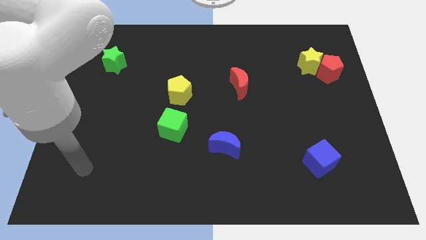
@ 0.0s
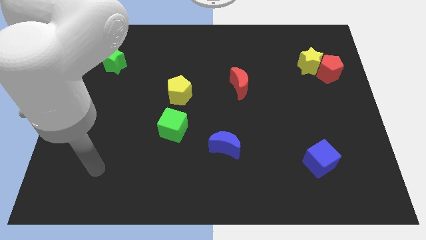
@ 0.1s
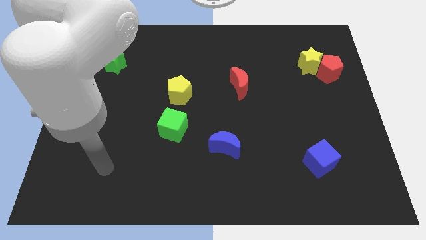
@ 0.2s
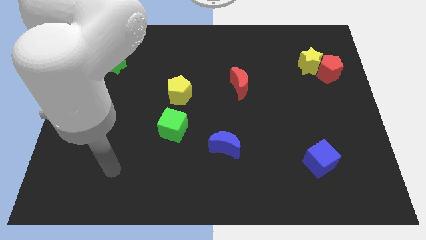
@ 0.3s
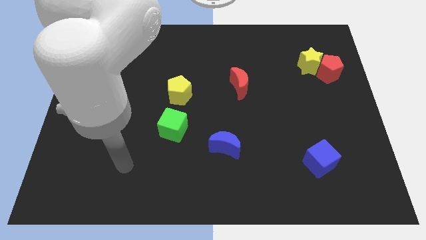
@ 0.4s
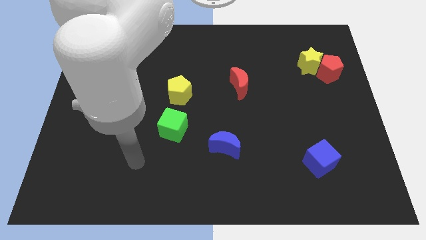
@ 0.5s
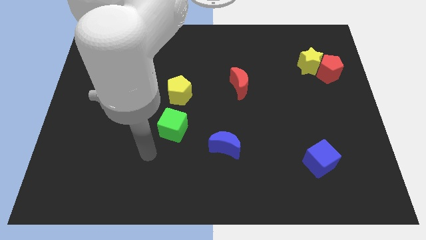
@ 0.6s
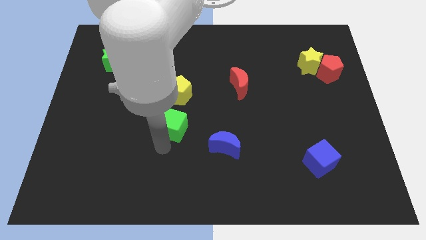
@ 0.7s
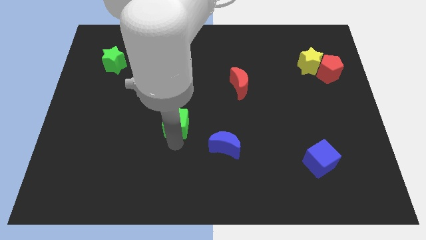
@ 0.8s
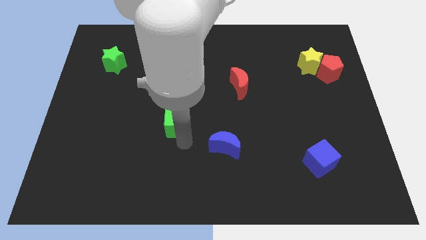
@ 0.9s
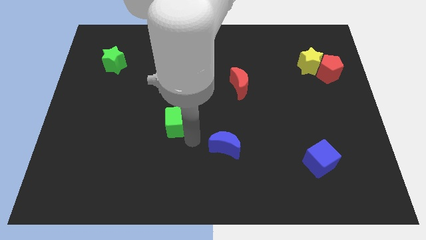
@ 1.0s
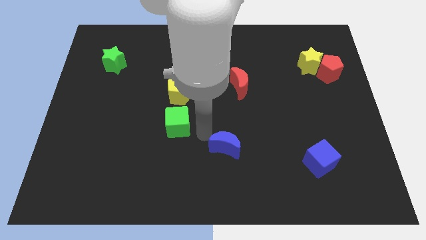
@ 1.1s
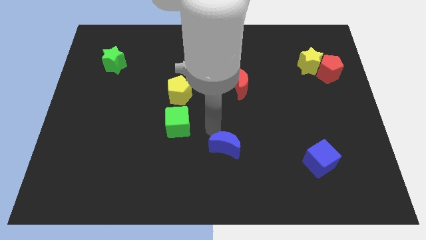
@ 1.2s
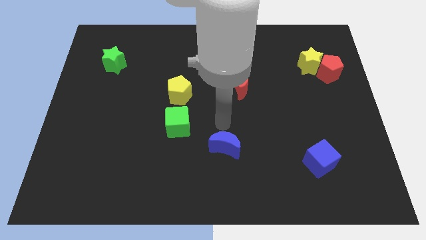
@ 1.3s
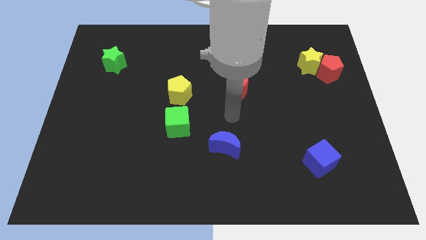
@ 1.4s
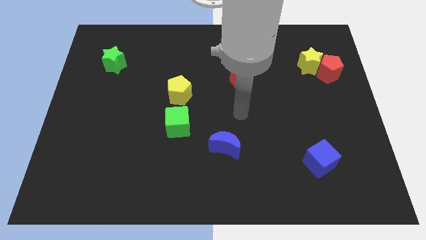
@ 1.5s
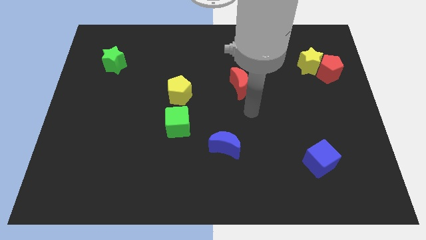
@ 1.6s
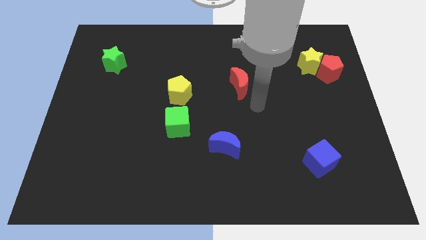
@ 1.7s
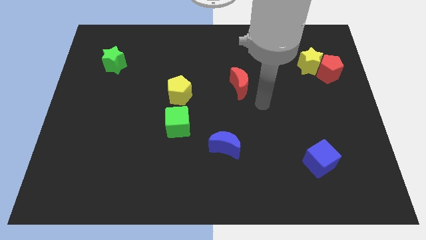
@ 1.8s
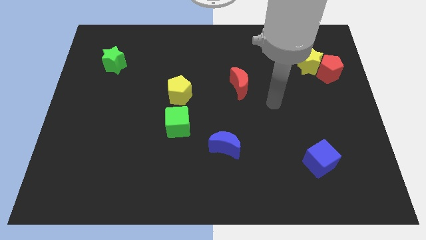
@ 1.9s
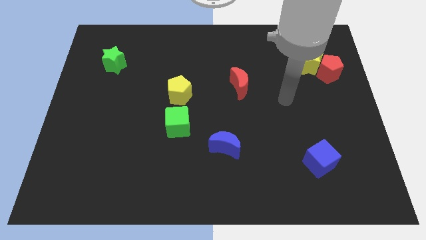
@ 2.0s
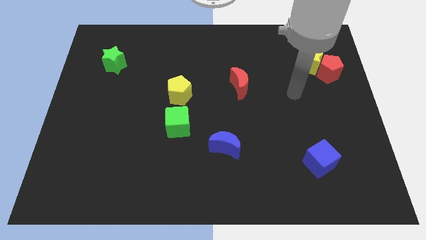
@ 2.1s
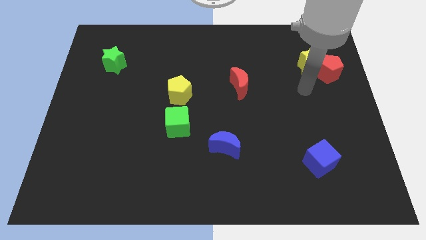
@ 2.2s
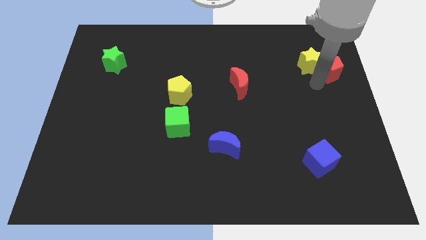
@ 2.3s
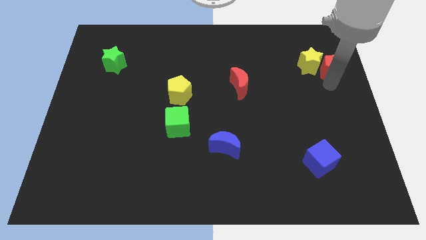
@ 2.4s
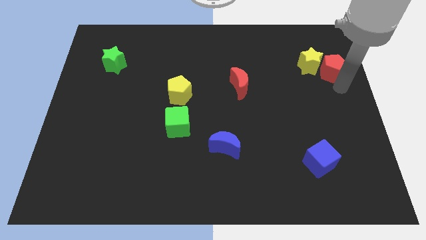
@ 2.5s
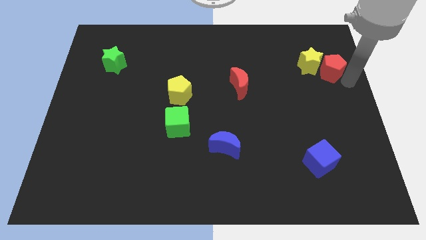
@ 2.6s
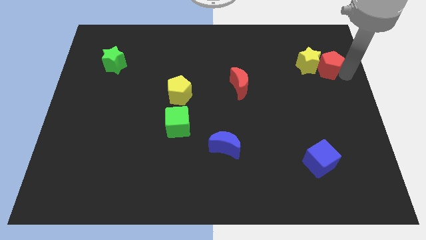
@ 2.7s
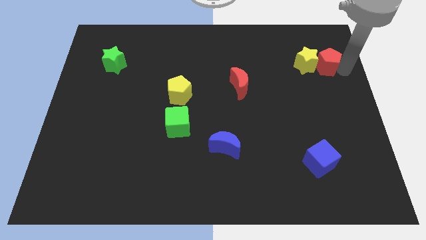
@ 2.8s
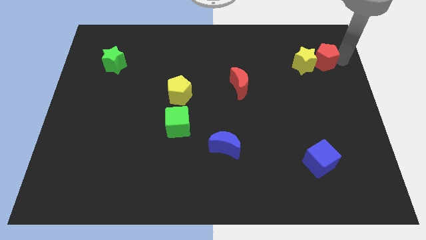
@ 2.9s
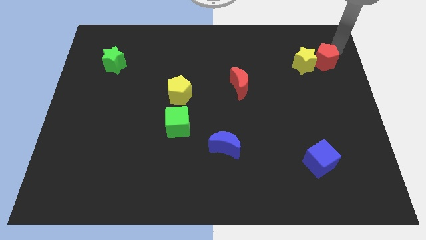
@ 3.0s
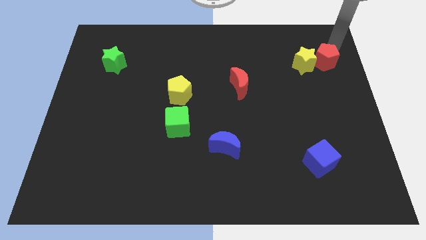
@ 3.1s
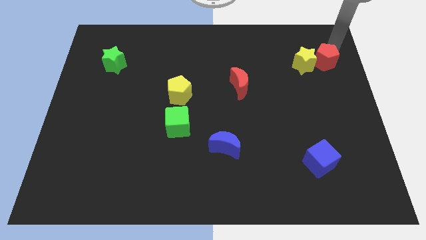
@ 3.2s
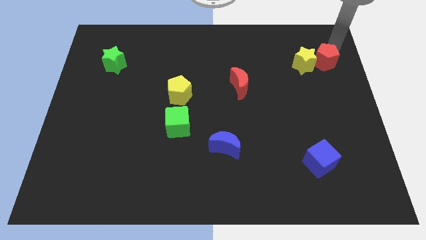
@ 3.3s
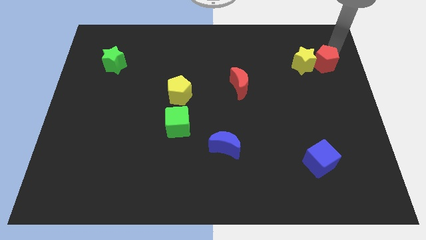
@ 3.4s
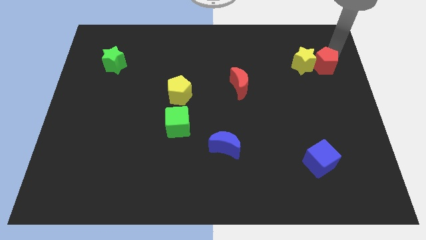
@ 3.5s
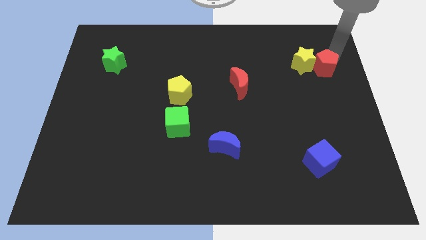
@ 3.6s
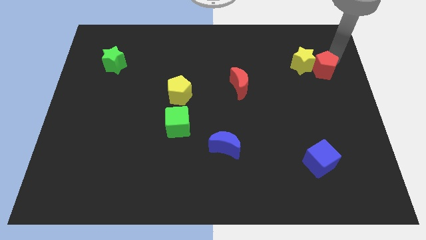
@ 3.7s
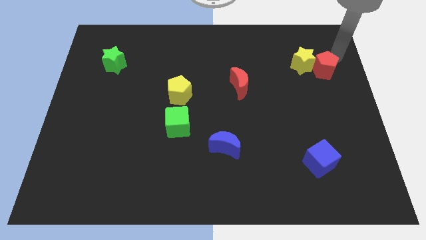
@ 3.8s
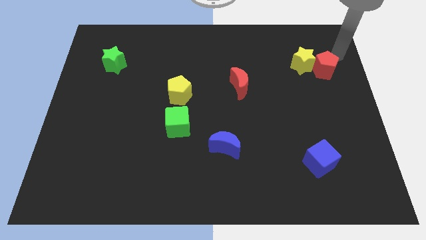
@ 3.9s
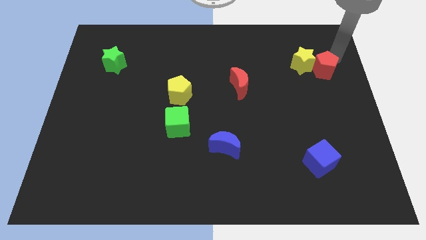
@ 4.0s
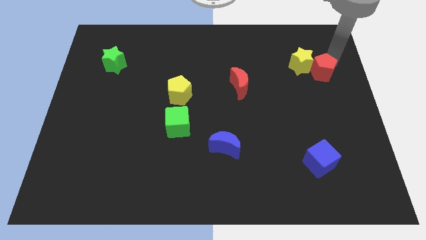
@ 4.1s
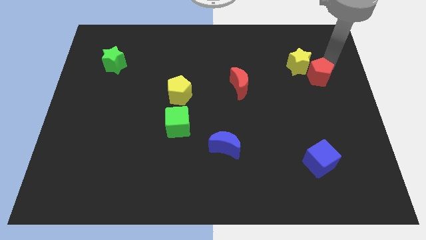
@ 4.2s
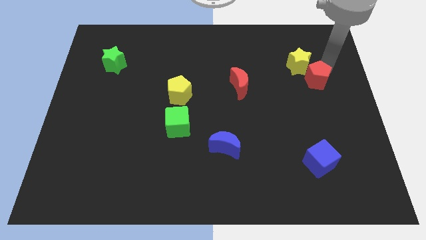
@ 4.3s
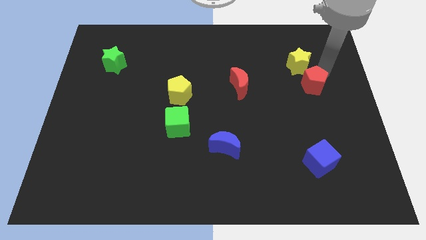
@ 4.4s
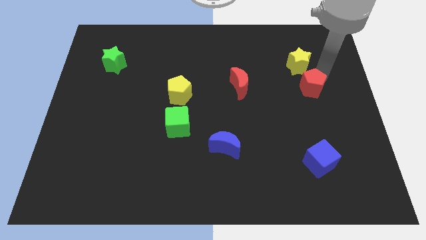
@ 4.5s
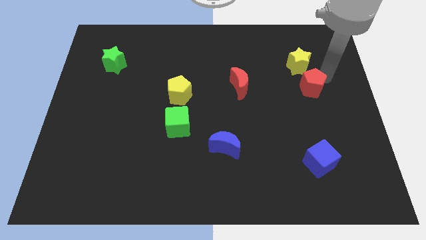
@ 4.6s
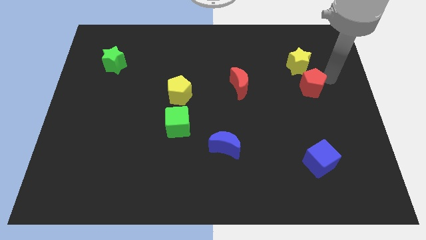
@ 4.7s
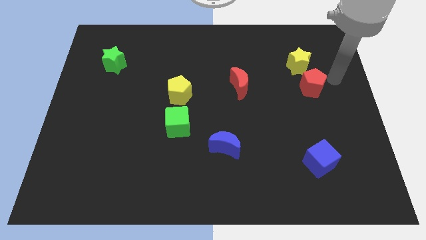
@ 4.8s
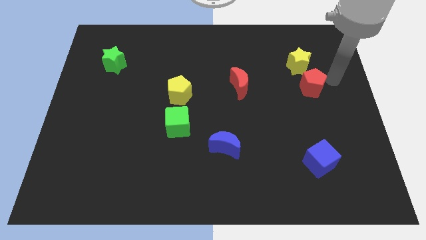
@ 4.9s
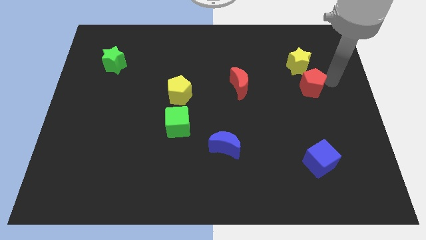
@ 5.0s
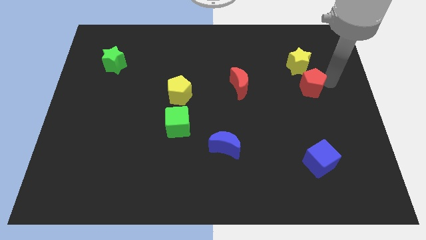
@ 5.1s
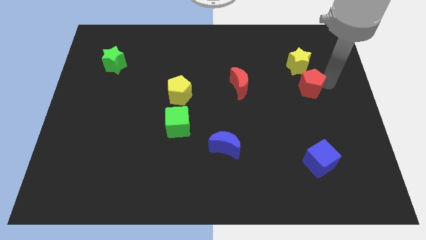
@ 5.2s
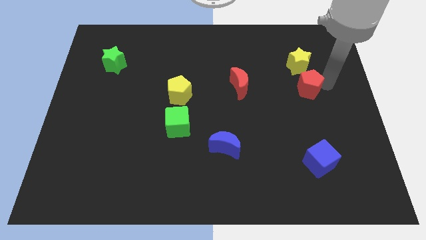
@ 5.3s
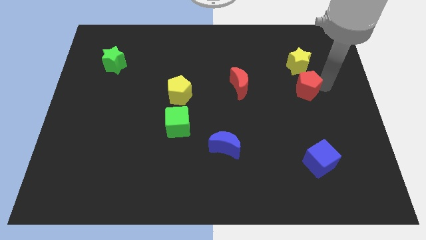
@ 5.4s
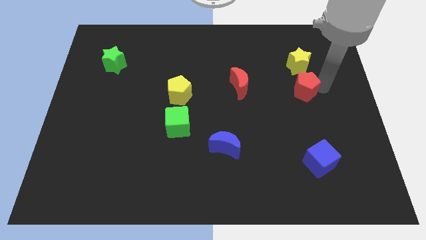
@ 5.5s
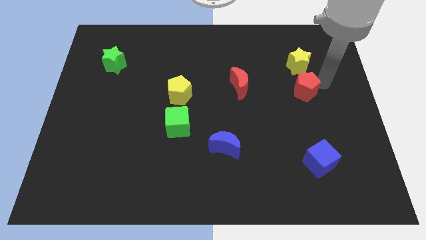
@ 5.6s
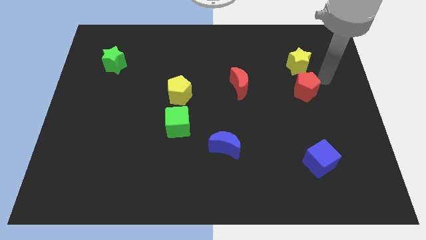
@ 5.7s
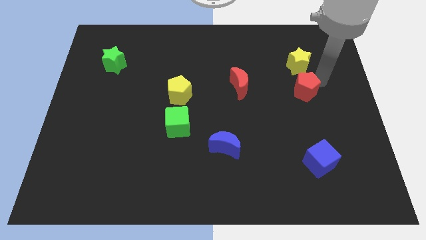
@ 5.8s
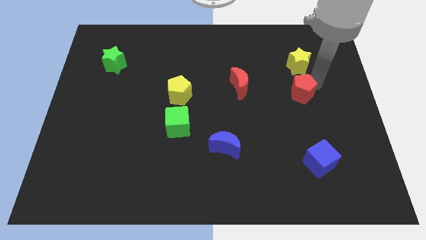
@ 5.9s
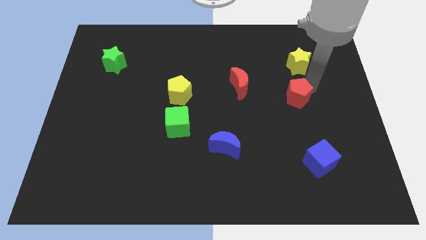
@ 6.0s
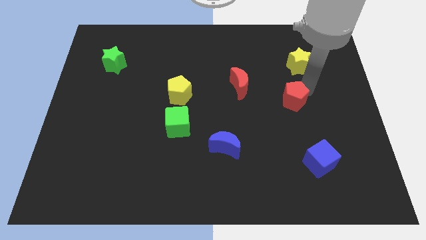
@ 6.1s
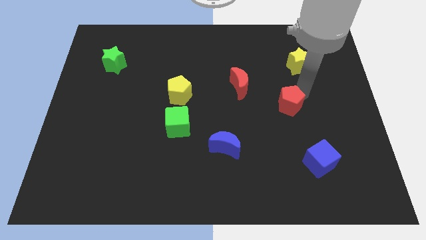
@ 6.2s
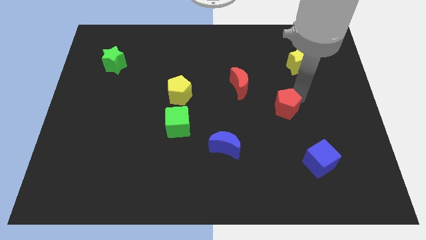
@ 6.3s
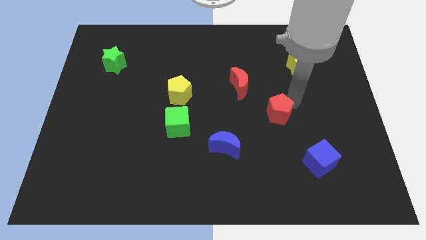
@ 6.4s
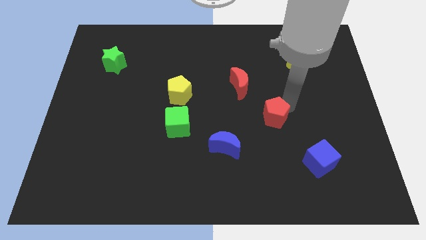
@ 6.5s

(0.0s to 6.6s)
slide the red pentagon diagonally downwards and to the left

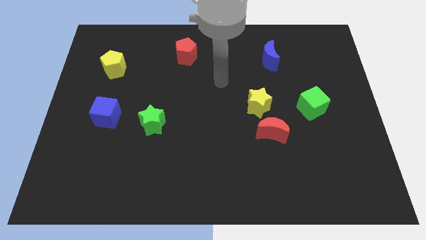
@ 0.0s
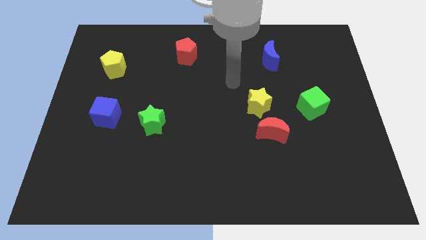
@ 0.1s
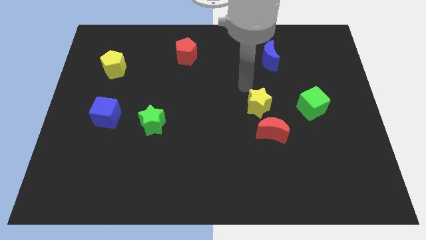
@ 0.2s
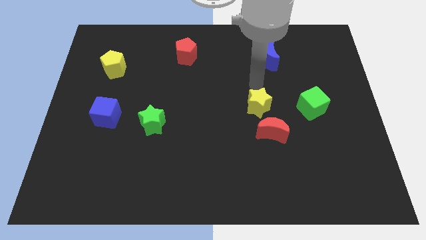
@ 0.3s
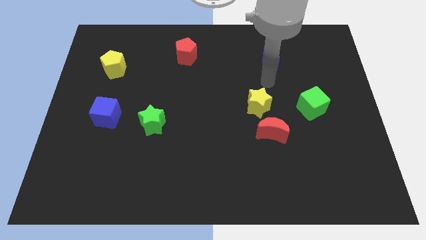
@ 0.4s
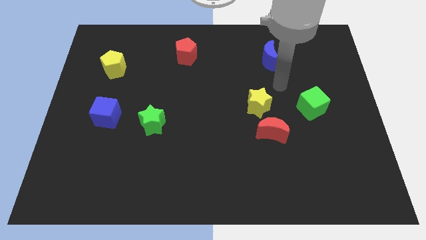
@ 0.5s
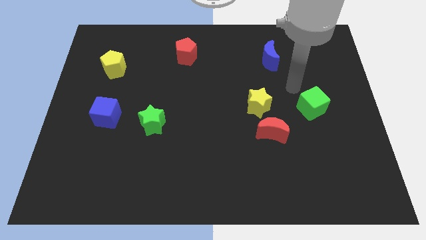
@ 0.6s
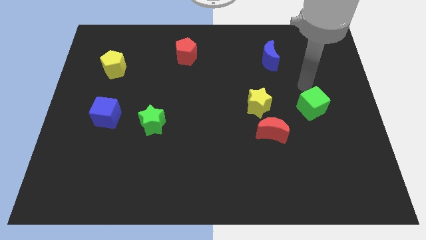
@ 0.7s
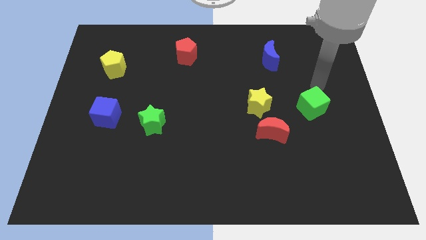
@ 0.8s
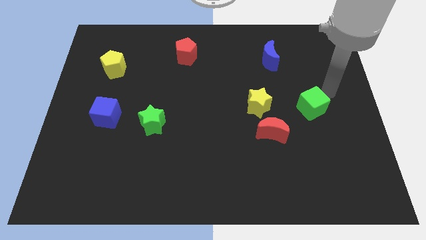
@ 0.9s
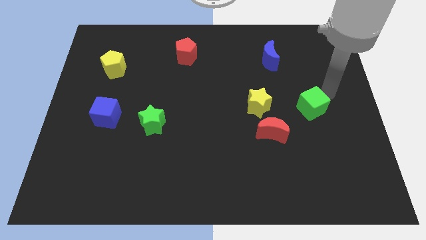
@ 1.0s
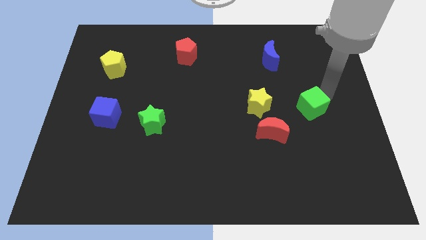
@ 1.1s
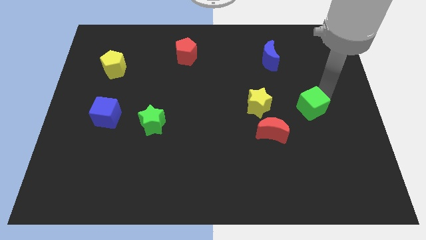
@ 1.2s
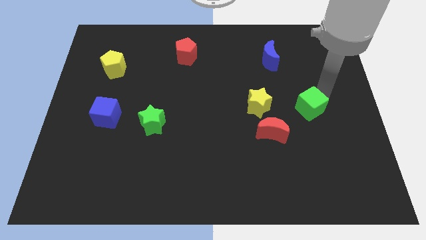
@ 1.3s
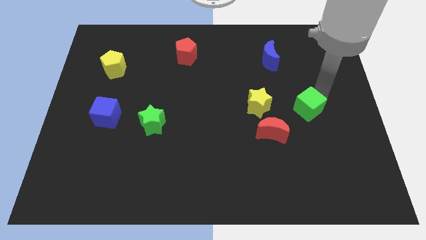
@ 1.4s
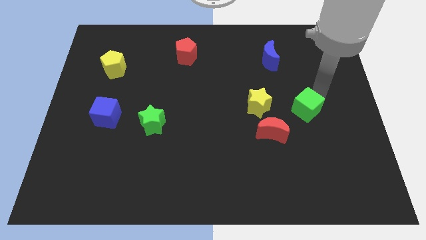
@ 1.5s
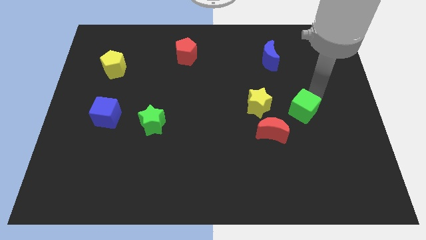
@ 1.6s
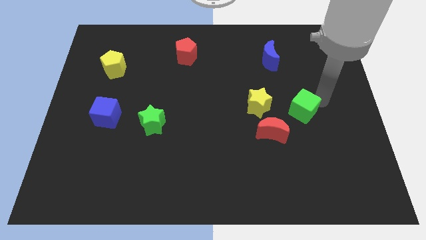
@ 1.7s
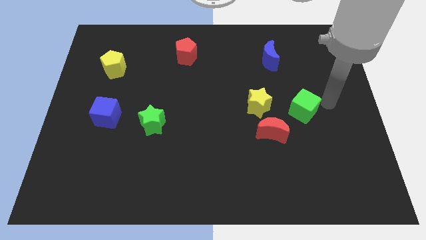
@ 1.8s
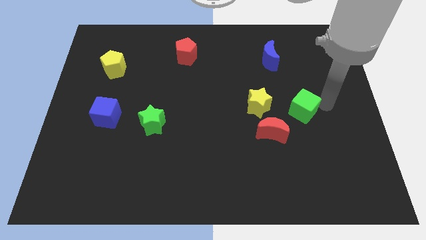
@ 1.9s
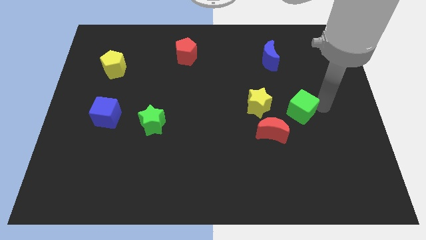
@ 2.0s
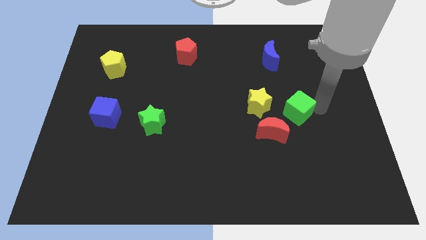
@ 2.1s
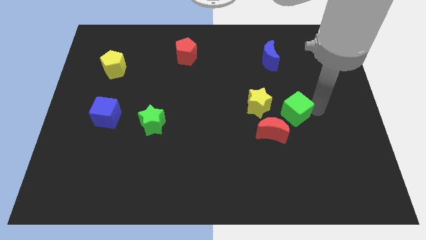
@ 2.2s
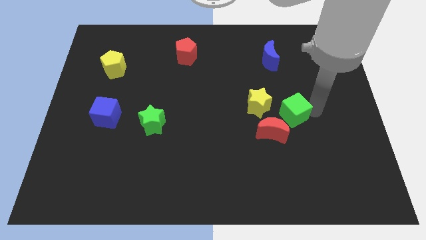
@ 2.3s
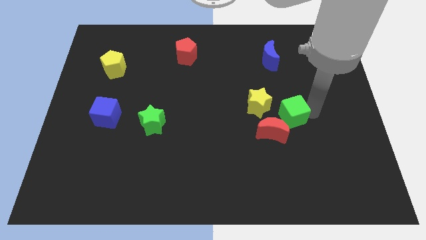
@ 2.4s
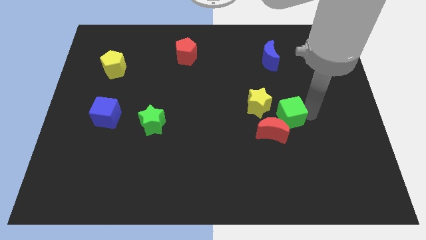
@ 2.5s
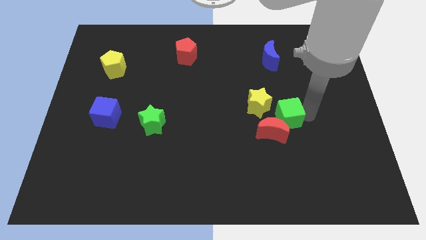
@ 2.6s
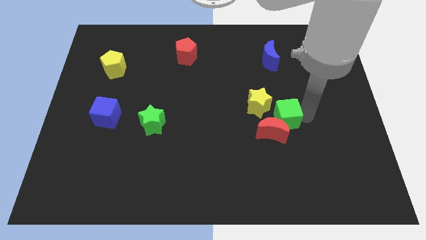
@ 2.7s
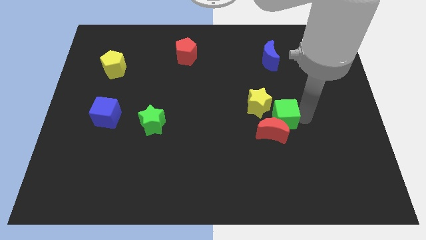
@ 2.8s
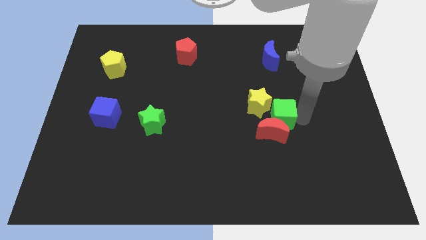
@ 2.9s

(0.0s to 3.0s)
move the green cube a bit left
